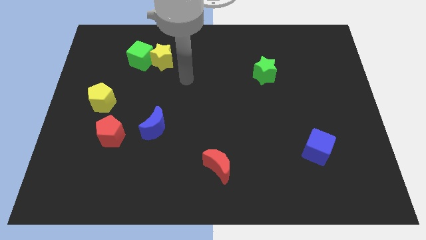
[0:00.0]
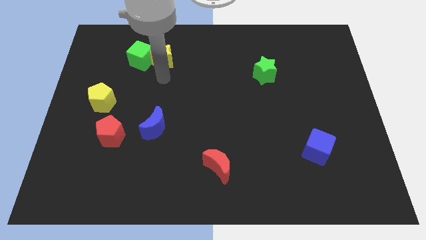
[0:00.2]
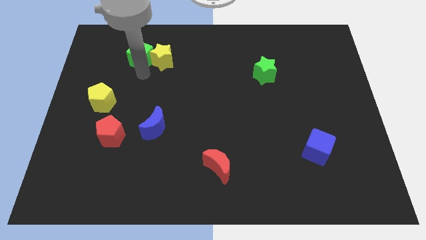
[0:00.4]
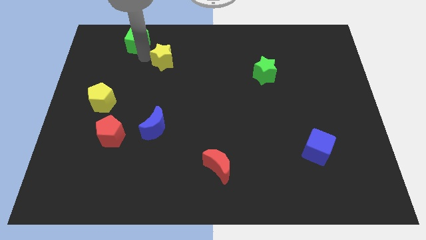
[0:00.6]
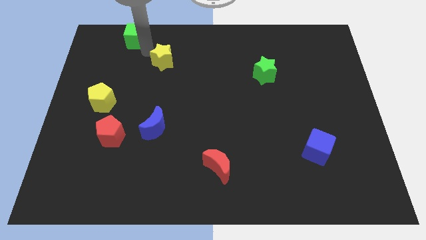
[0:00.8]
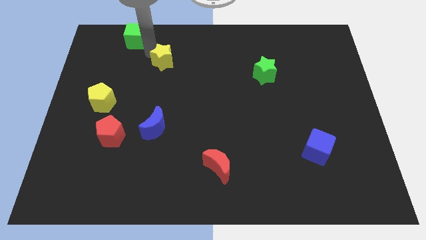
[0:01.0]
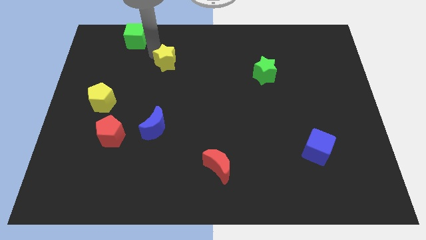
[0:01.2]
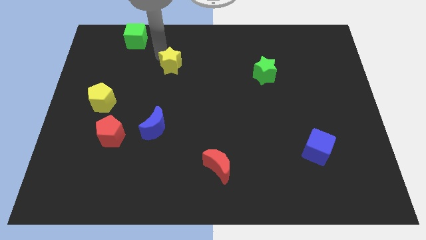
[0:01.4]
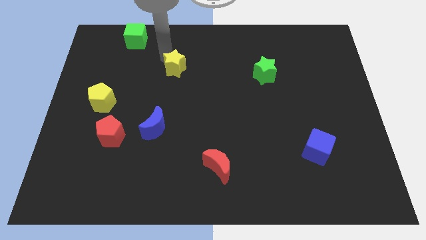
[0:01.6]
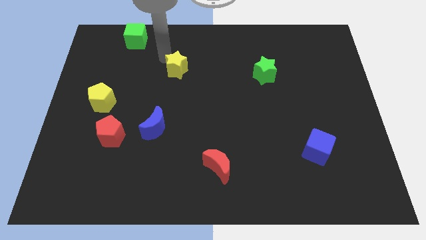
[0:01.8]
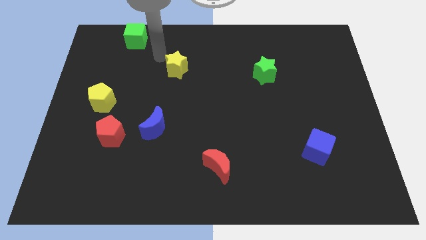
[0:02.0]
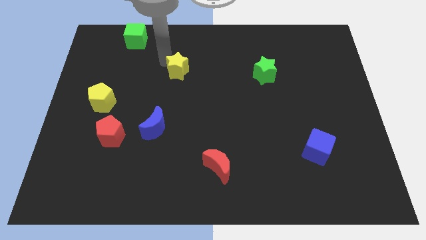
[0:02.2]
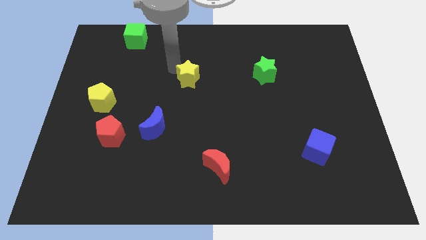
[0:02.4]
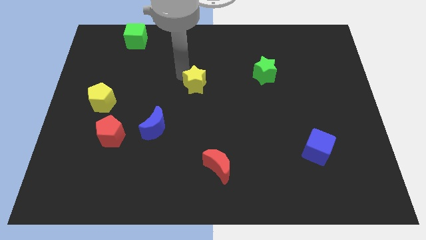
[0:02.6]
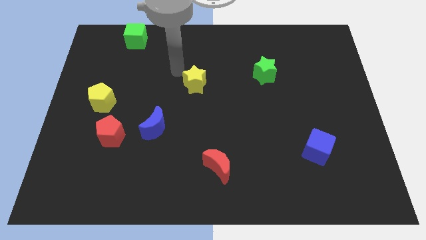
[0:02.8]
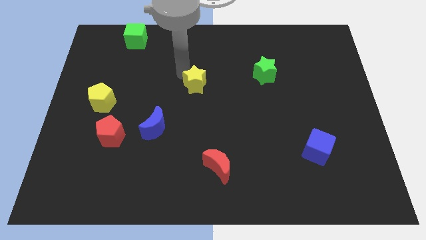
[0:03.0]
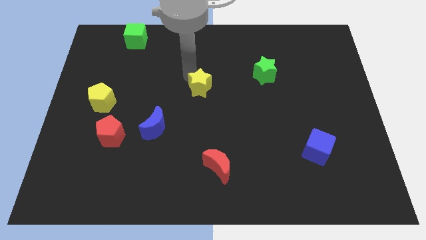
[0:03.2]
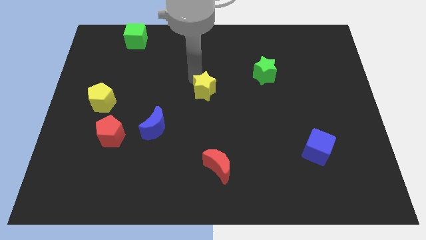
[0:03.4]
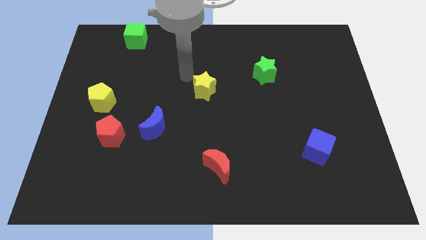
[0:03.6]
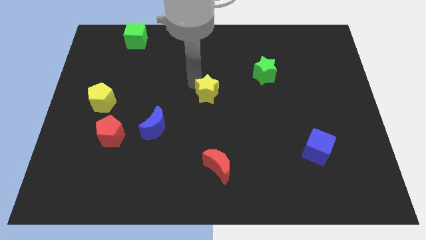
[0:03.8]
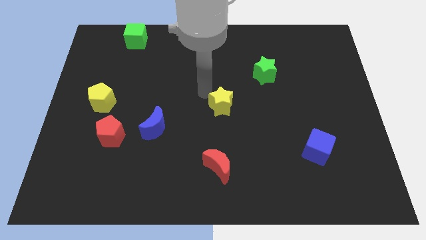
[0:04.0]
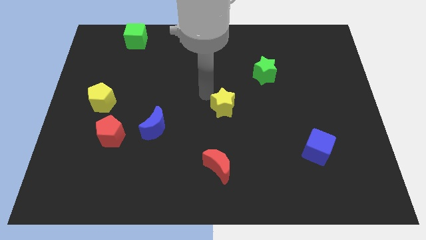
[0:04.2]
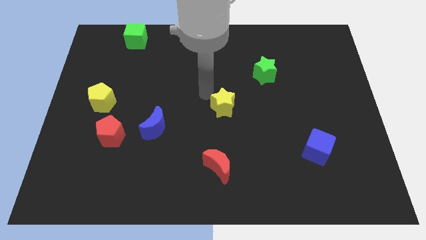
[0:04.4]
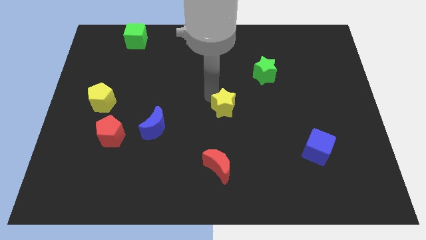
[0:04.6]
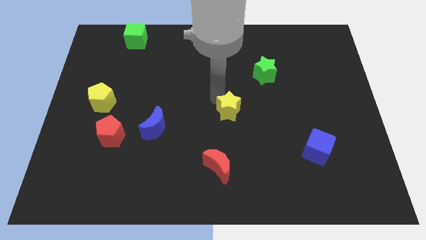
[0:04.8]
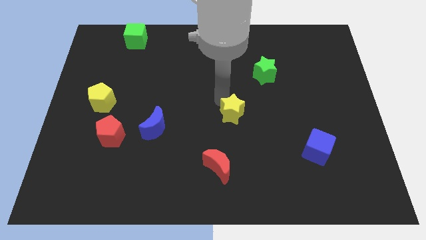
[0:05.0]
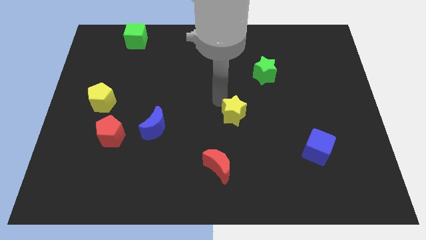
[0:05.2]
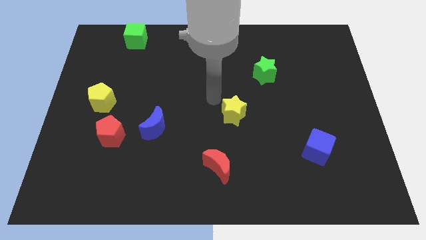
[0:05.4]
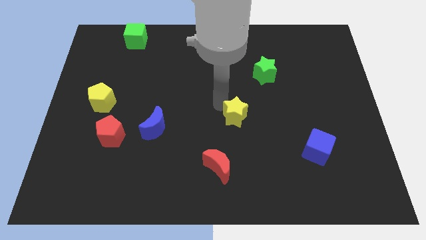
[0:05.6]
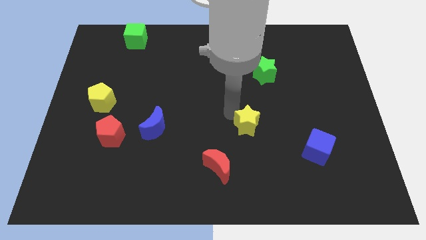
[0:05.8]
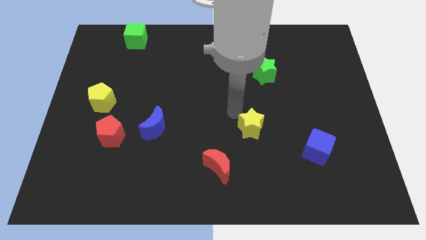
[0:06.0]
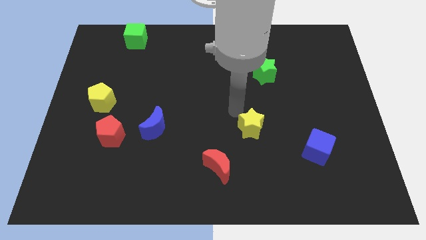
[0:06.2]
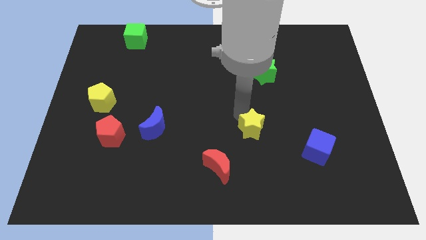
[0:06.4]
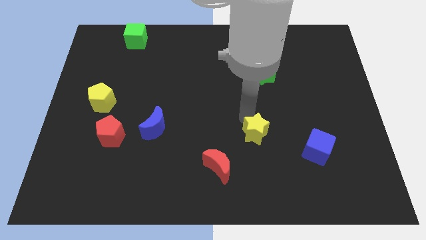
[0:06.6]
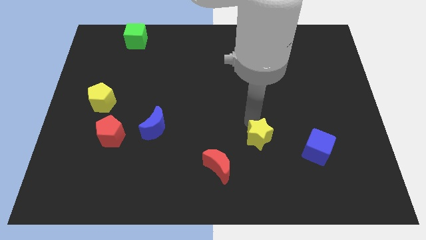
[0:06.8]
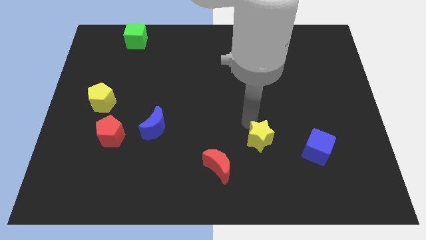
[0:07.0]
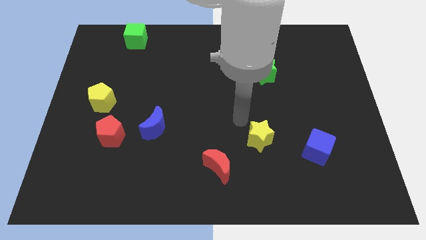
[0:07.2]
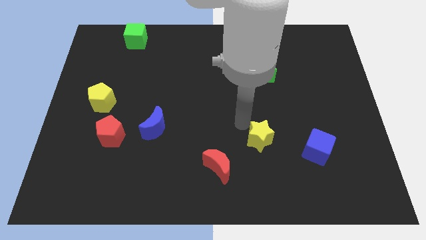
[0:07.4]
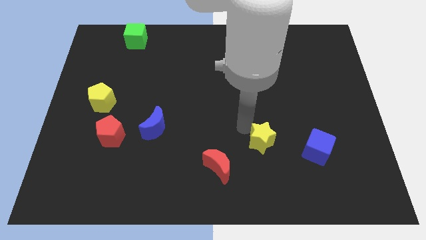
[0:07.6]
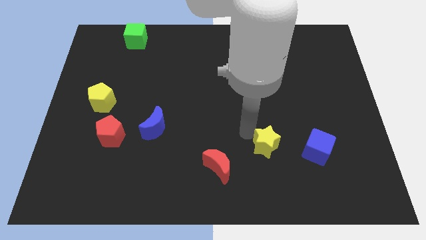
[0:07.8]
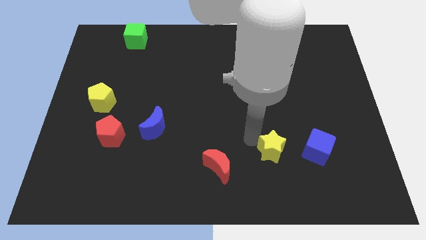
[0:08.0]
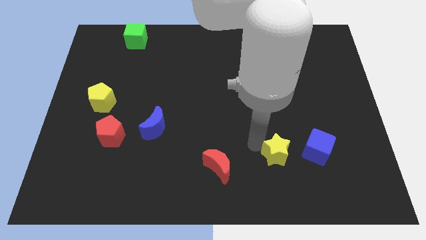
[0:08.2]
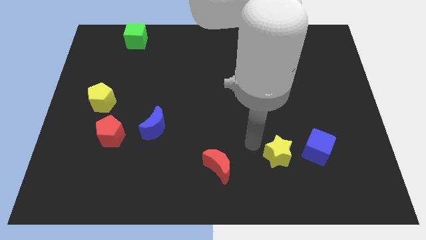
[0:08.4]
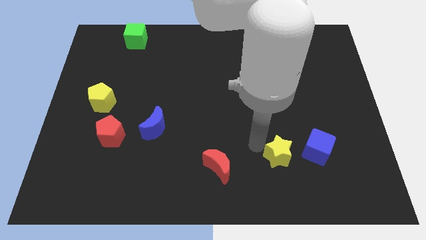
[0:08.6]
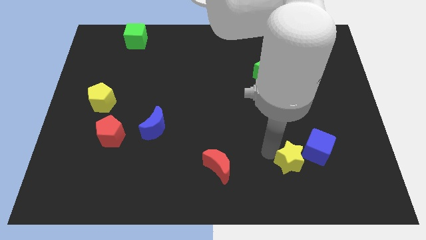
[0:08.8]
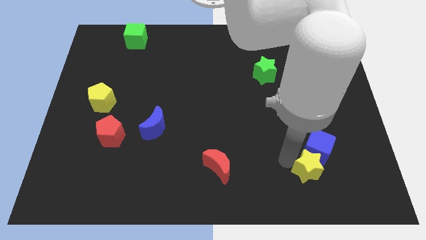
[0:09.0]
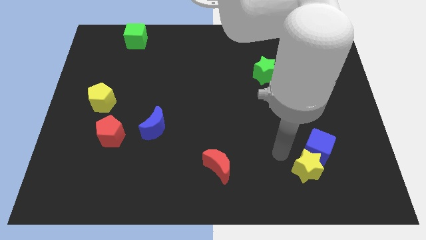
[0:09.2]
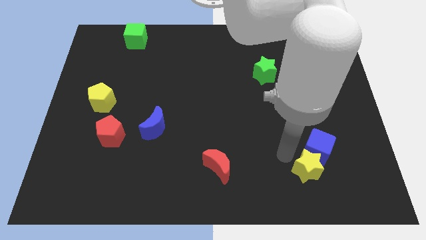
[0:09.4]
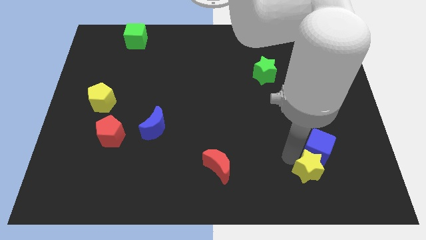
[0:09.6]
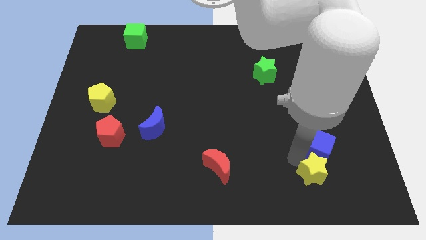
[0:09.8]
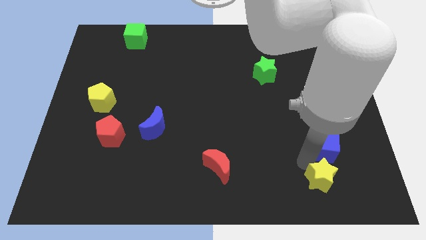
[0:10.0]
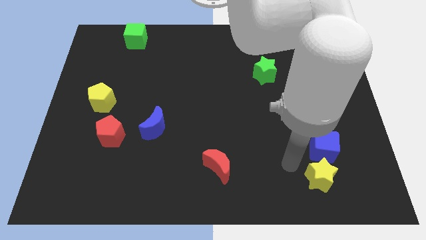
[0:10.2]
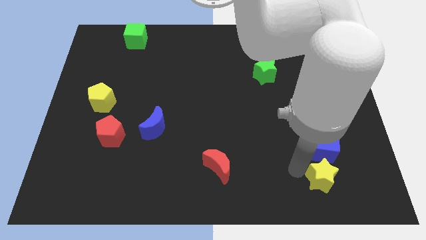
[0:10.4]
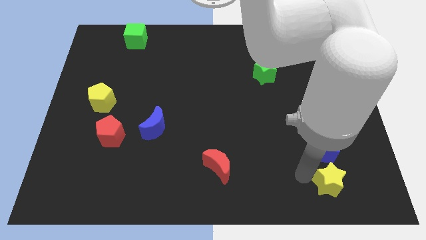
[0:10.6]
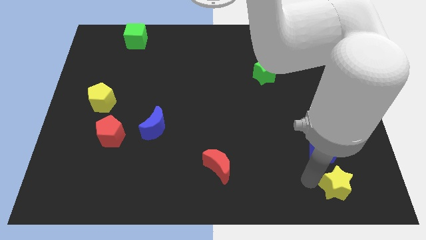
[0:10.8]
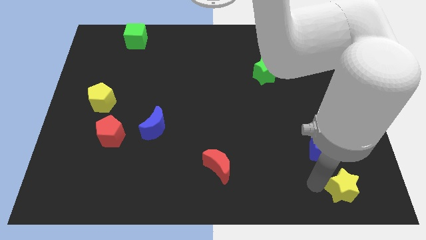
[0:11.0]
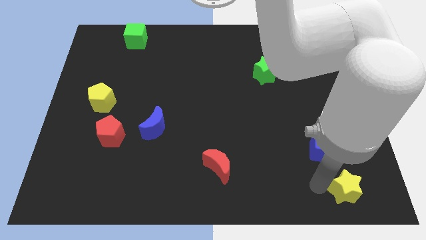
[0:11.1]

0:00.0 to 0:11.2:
push the yellow star to the bottom right corner

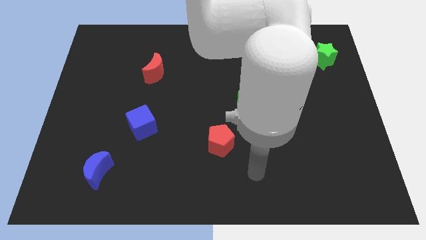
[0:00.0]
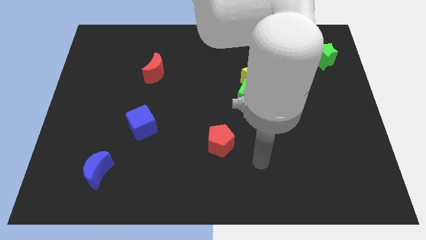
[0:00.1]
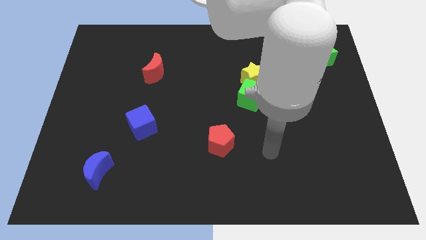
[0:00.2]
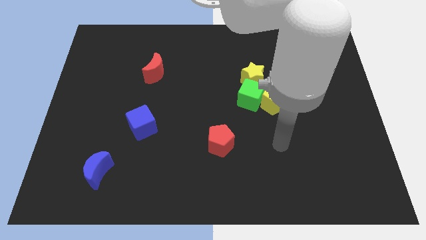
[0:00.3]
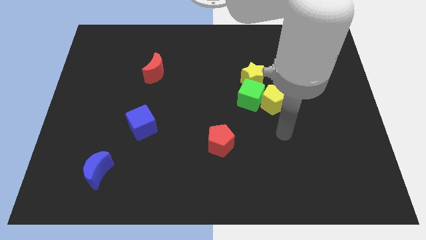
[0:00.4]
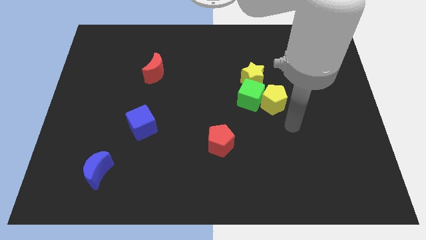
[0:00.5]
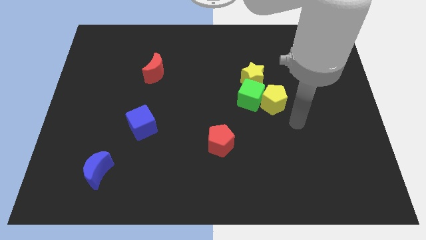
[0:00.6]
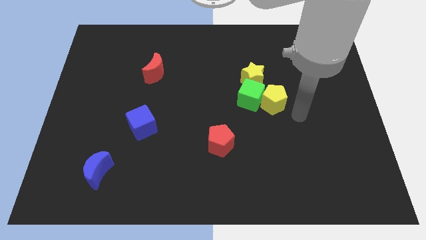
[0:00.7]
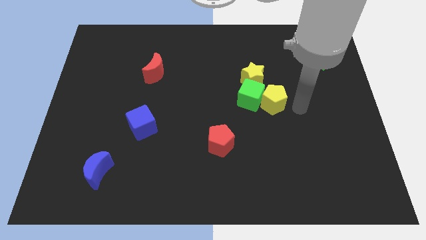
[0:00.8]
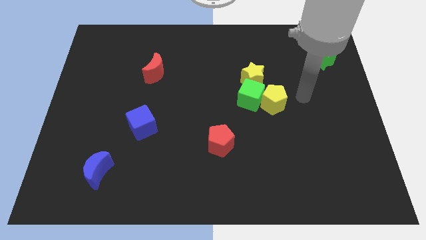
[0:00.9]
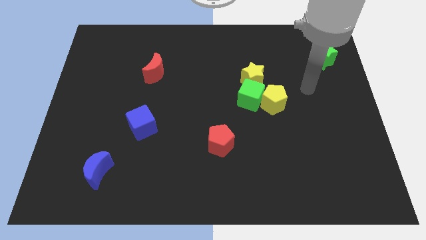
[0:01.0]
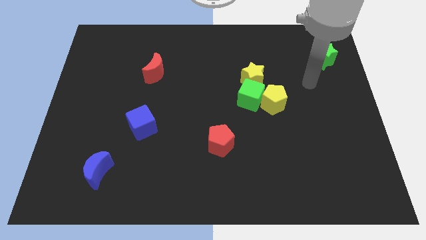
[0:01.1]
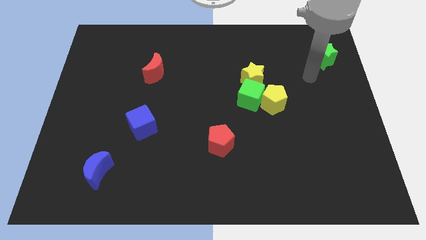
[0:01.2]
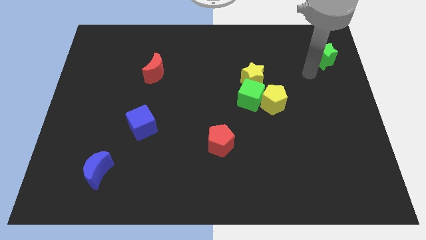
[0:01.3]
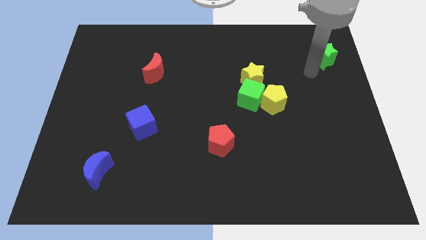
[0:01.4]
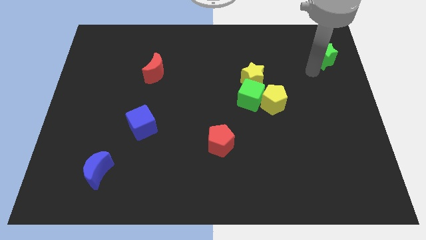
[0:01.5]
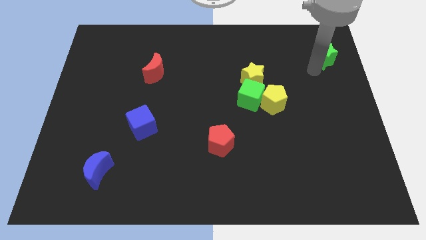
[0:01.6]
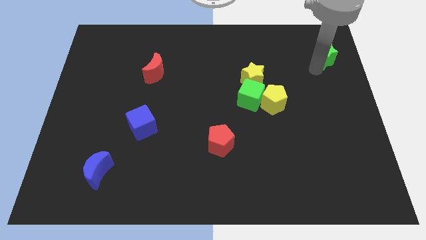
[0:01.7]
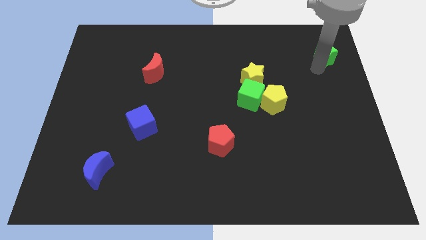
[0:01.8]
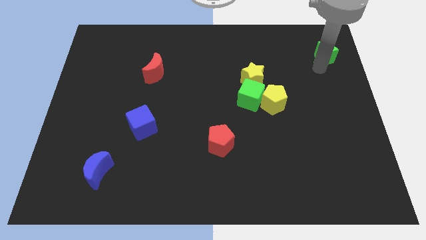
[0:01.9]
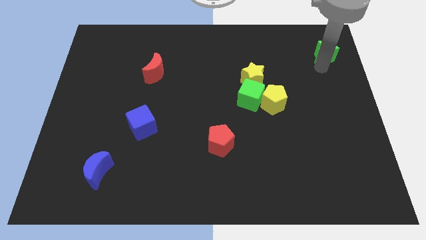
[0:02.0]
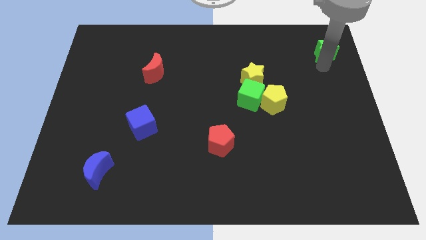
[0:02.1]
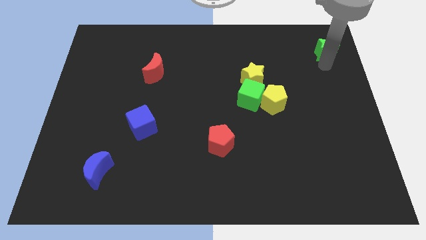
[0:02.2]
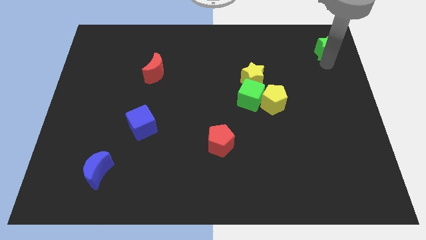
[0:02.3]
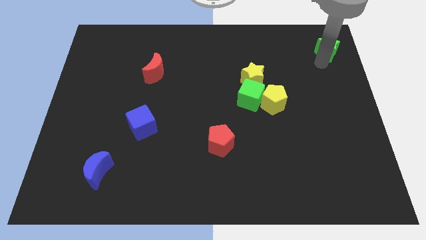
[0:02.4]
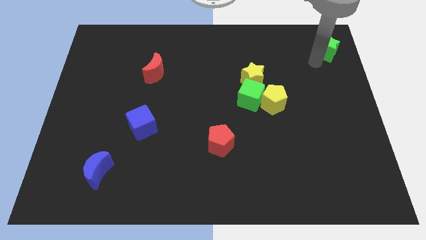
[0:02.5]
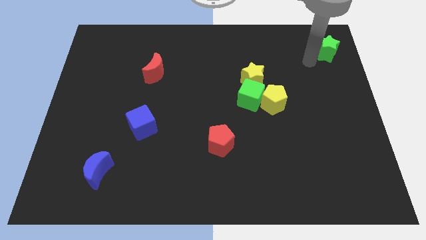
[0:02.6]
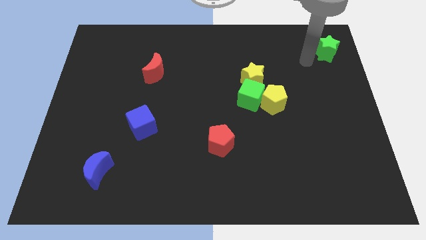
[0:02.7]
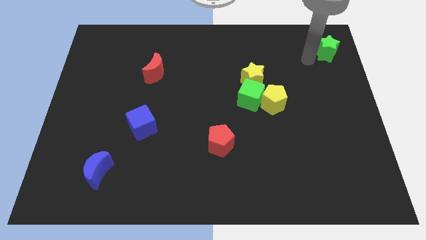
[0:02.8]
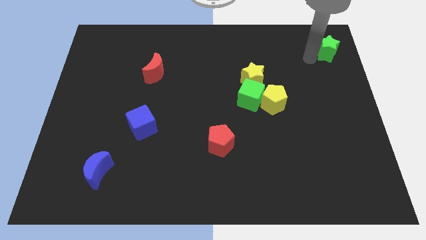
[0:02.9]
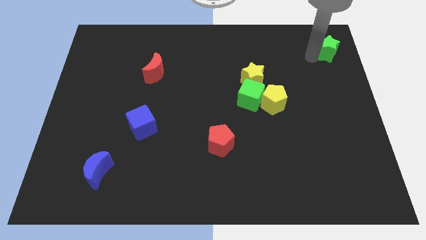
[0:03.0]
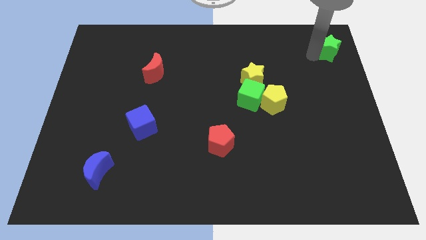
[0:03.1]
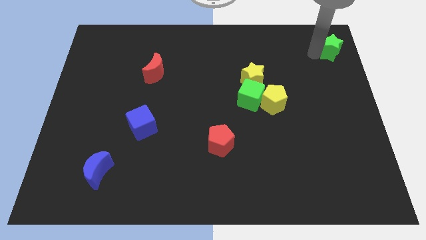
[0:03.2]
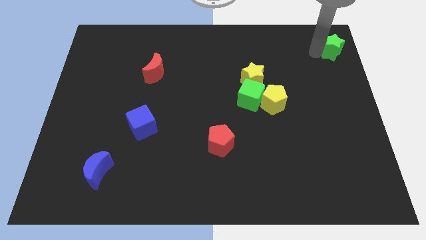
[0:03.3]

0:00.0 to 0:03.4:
put the green star to the top right of the board
